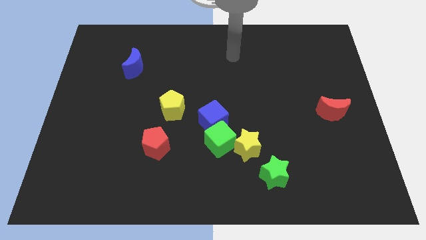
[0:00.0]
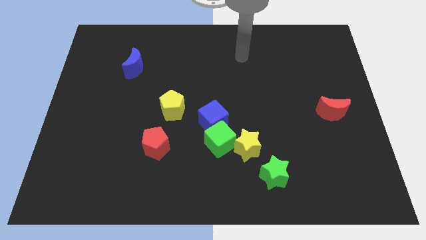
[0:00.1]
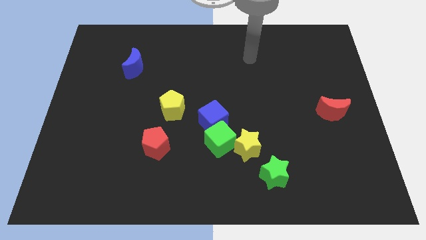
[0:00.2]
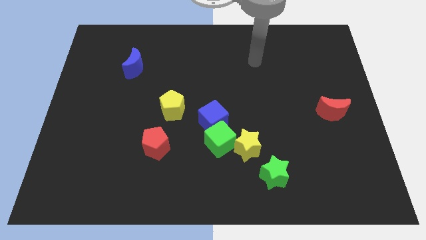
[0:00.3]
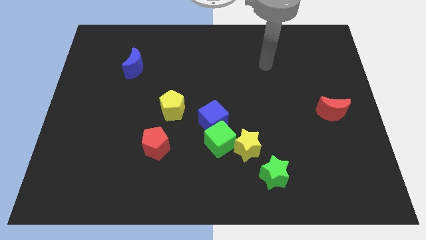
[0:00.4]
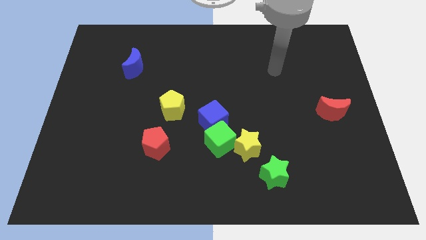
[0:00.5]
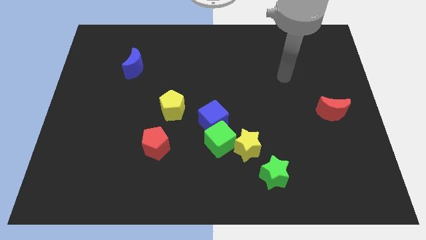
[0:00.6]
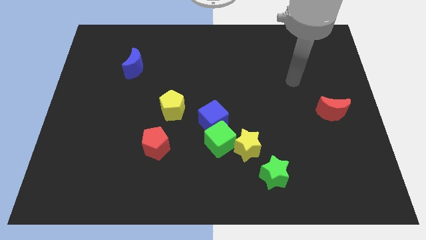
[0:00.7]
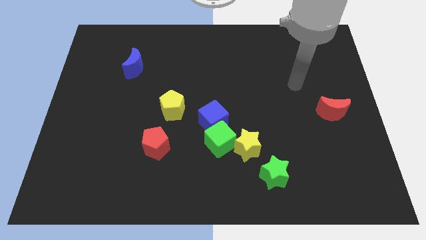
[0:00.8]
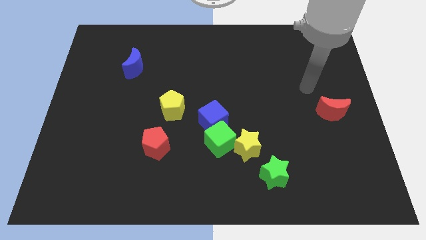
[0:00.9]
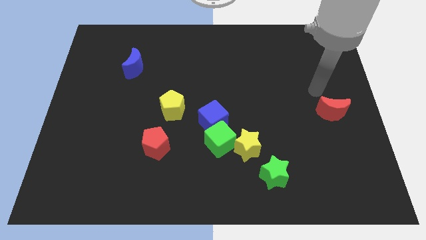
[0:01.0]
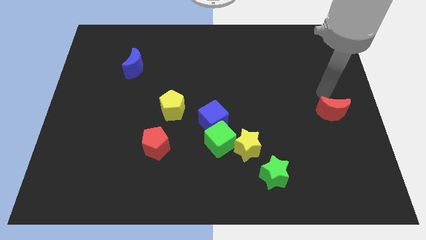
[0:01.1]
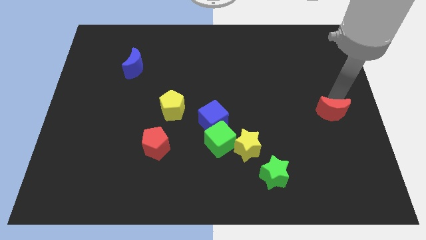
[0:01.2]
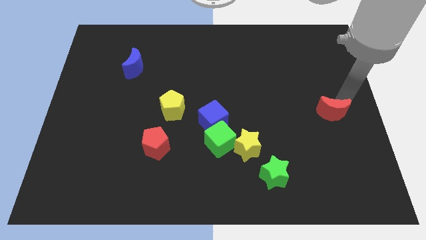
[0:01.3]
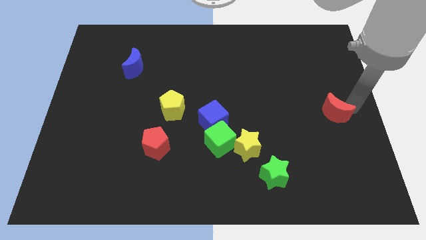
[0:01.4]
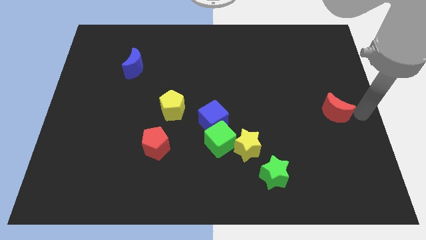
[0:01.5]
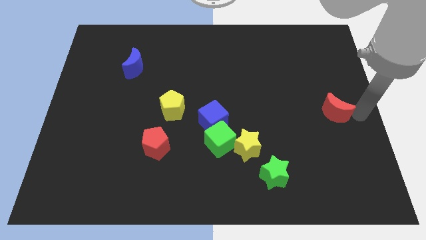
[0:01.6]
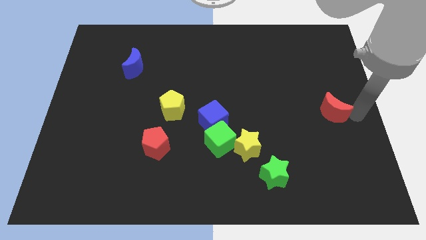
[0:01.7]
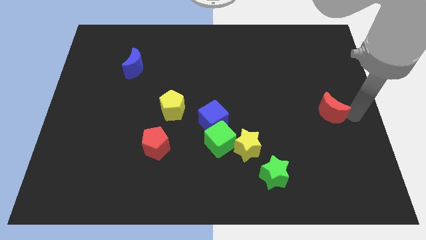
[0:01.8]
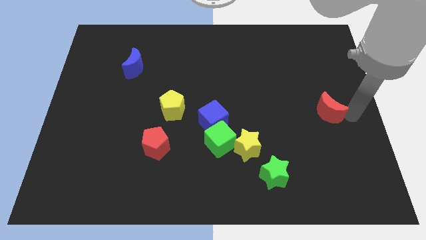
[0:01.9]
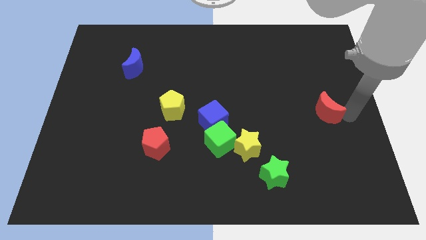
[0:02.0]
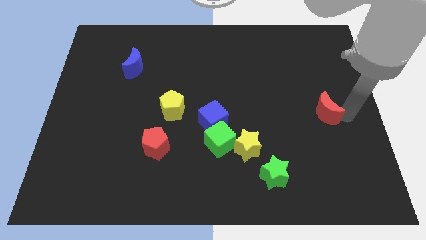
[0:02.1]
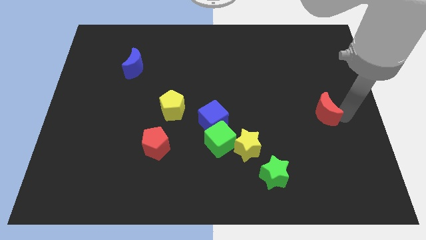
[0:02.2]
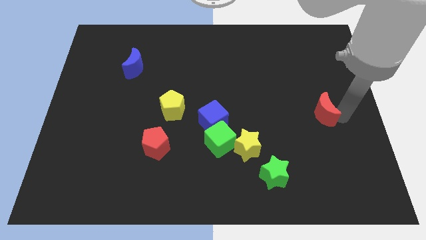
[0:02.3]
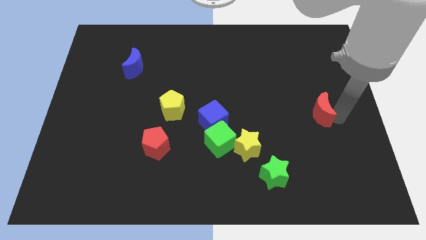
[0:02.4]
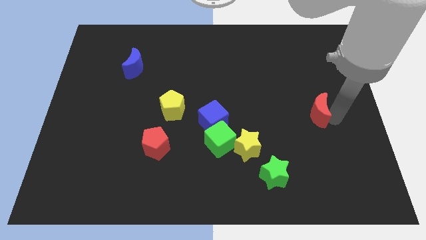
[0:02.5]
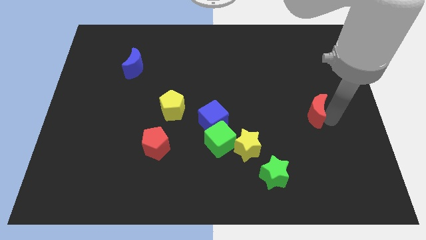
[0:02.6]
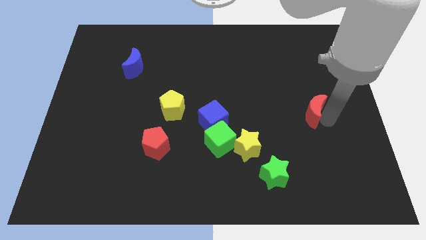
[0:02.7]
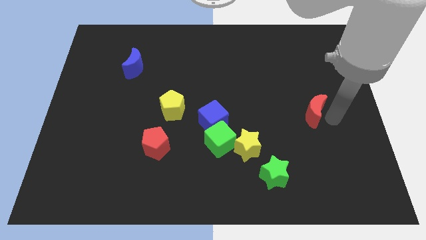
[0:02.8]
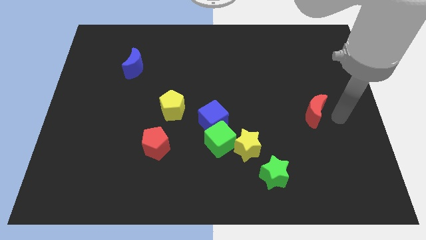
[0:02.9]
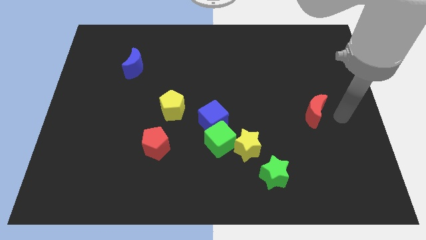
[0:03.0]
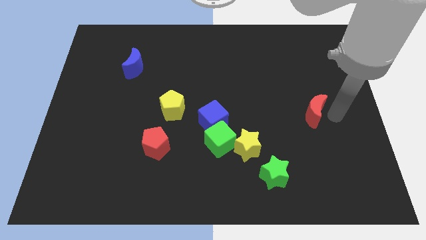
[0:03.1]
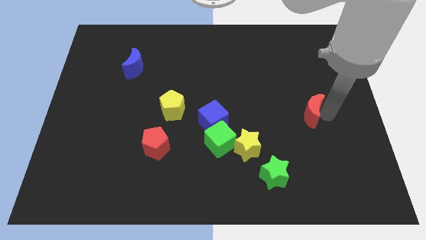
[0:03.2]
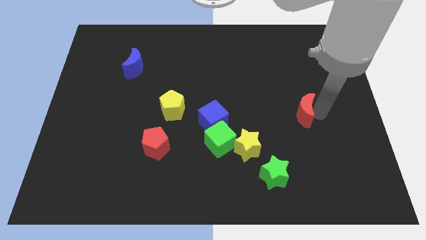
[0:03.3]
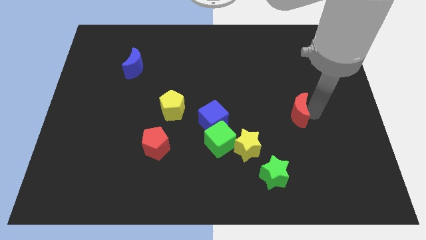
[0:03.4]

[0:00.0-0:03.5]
slightly slide the red moon left

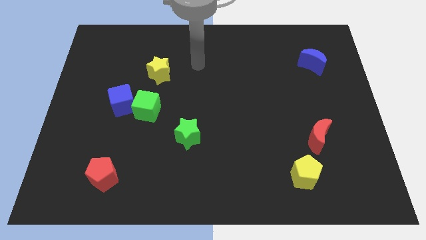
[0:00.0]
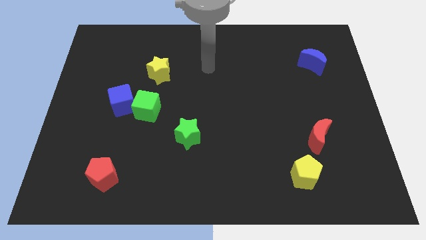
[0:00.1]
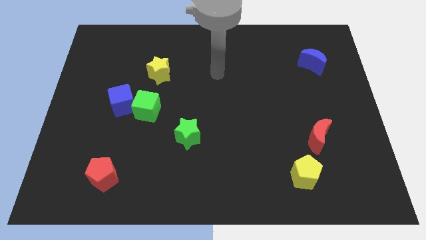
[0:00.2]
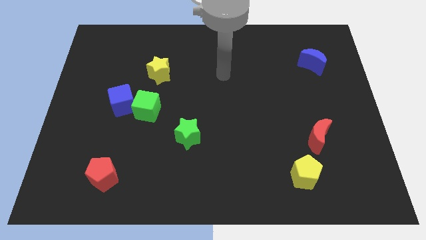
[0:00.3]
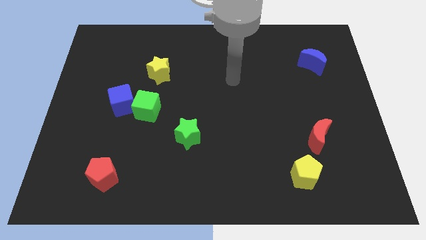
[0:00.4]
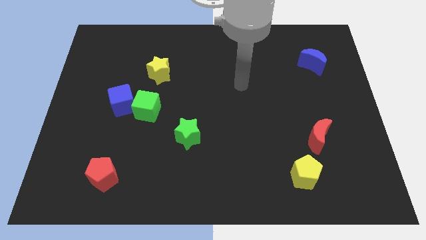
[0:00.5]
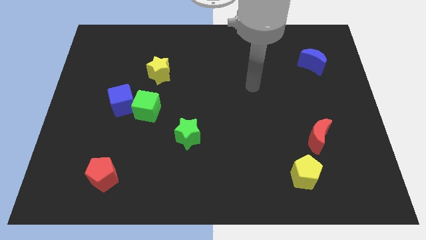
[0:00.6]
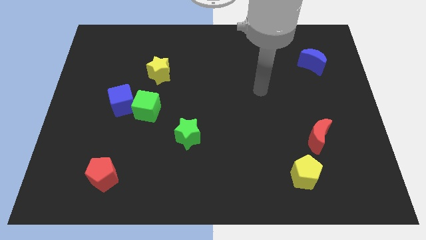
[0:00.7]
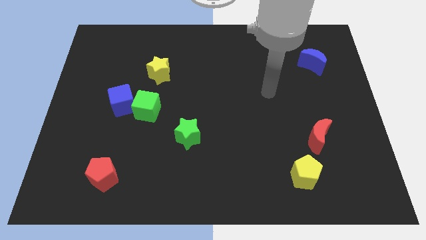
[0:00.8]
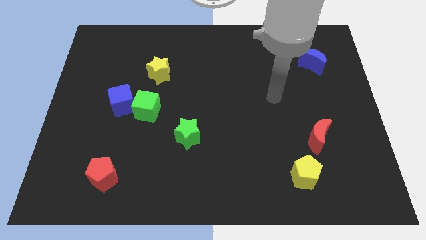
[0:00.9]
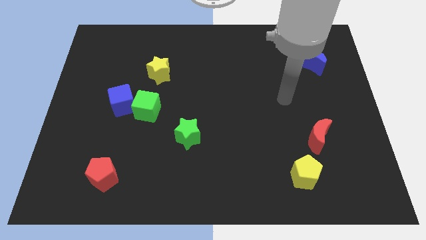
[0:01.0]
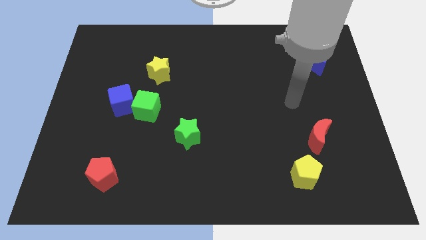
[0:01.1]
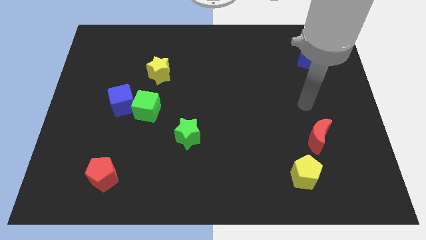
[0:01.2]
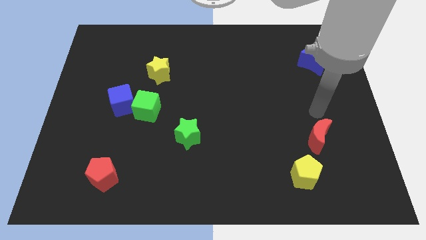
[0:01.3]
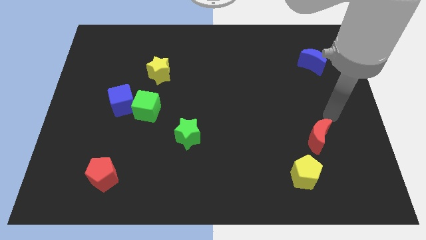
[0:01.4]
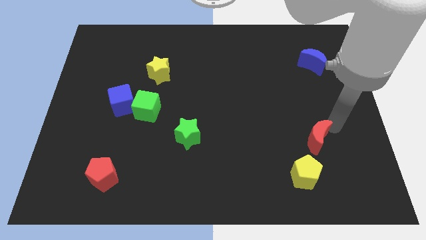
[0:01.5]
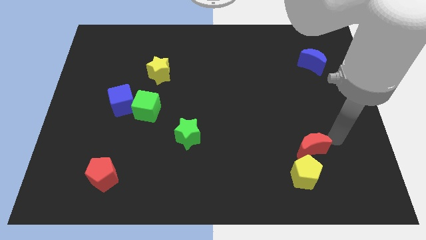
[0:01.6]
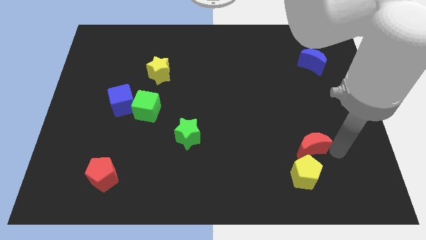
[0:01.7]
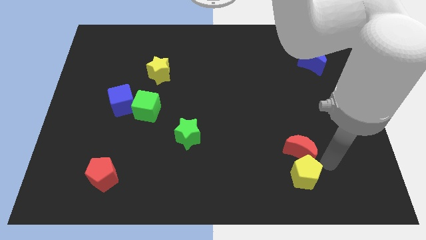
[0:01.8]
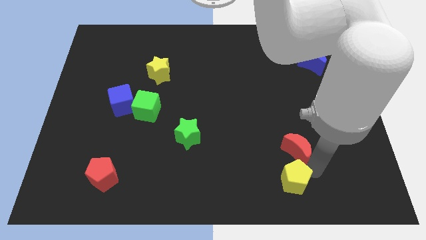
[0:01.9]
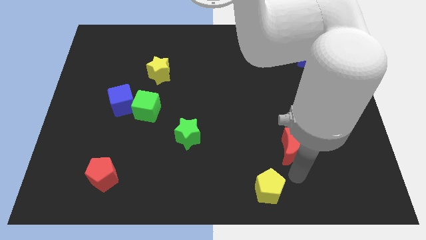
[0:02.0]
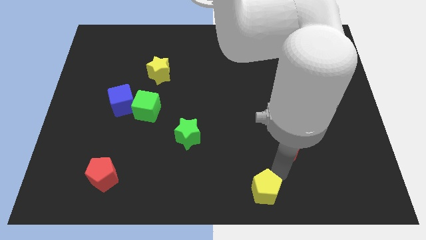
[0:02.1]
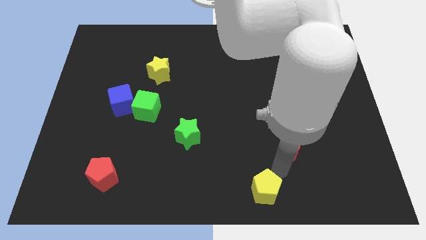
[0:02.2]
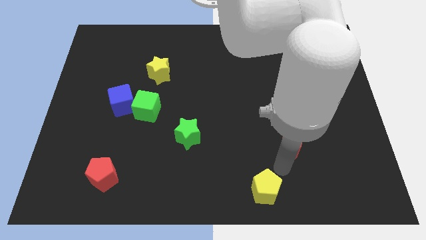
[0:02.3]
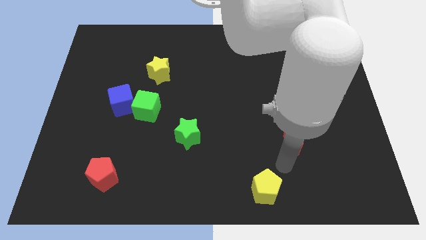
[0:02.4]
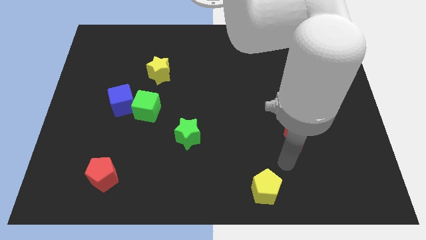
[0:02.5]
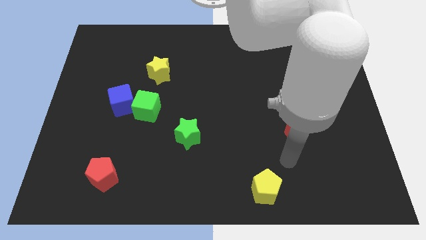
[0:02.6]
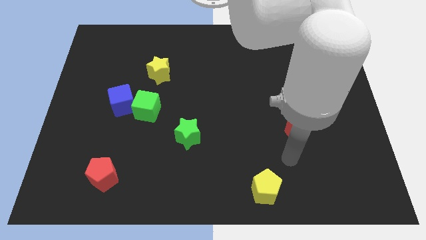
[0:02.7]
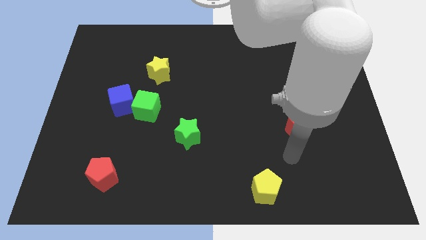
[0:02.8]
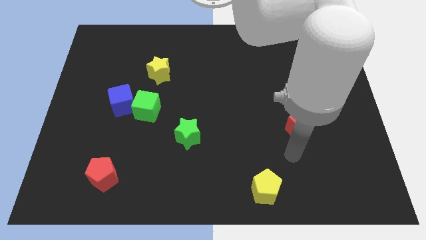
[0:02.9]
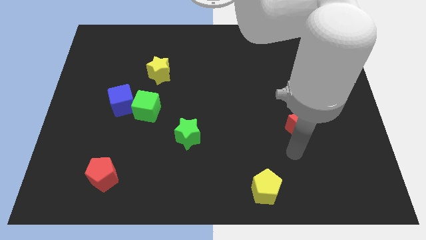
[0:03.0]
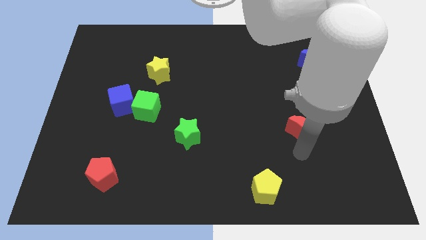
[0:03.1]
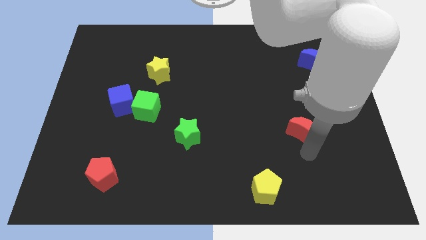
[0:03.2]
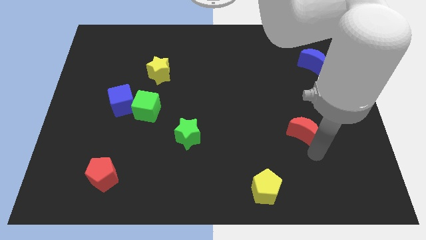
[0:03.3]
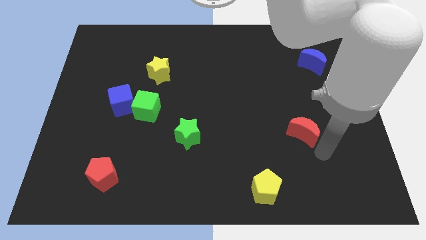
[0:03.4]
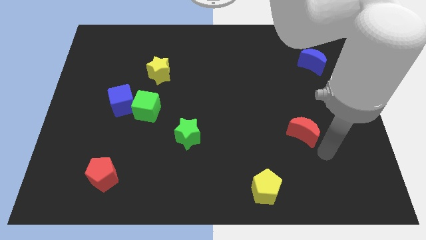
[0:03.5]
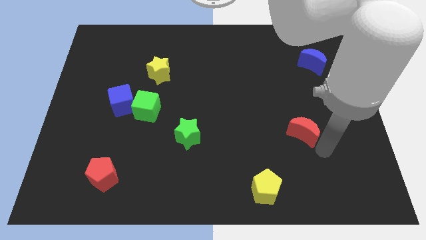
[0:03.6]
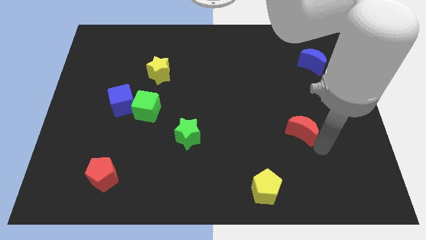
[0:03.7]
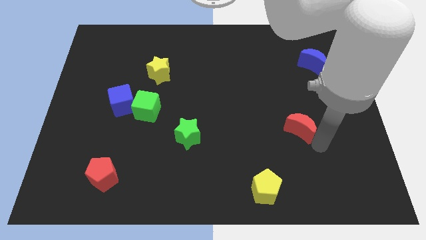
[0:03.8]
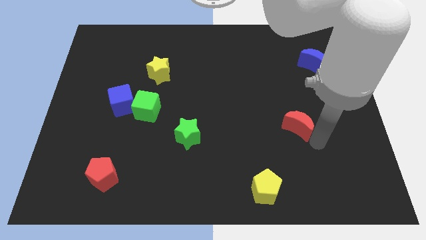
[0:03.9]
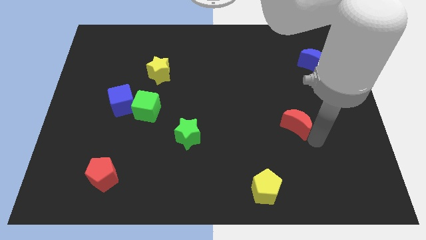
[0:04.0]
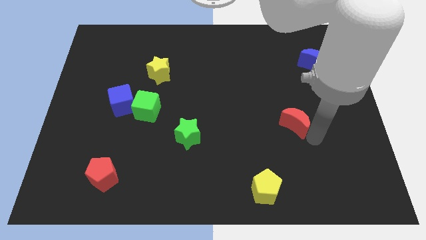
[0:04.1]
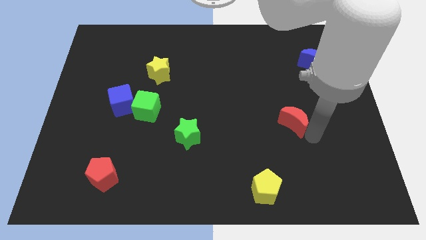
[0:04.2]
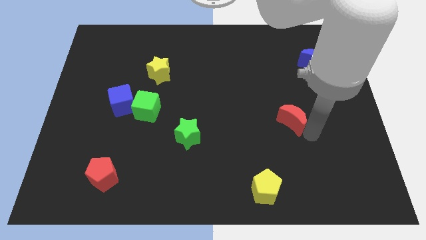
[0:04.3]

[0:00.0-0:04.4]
slightly slide the red moon upwards and then to the left
